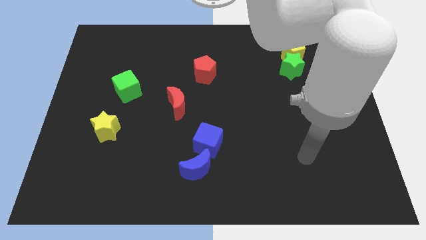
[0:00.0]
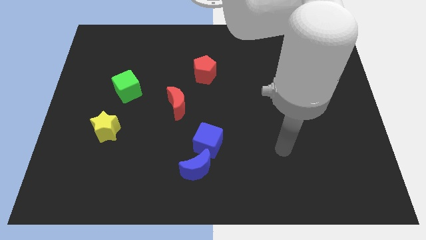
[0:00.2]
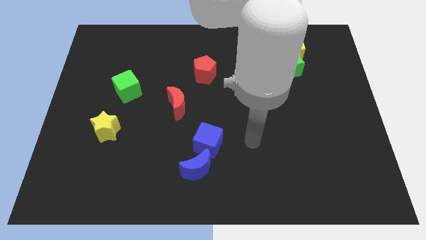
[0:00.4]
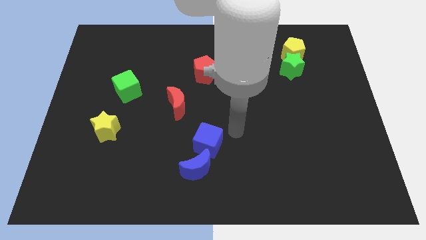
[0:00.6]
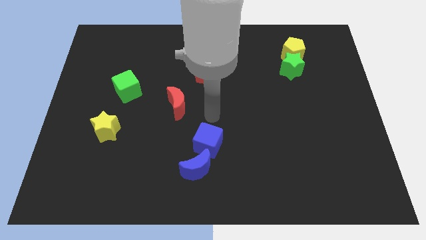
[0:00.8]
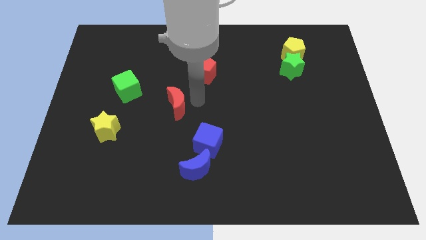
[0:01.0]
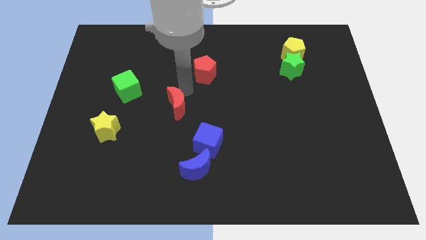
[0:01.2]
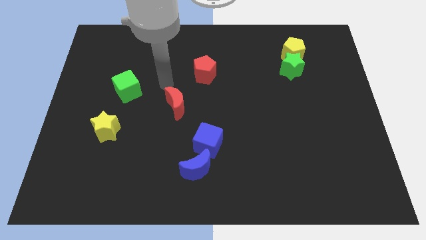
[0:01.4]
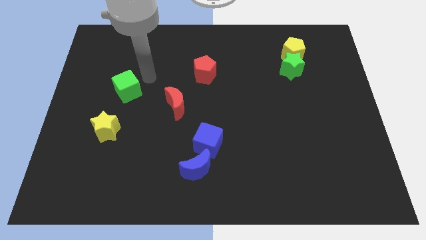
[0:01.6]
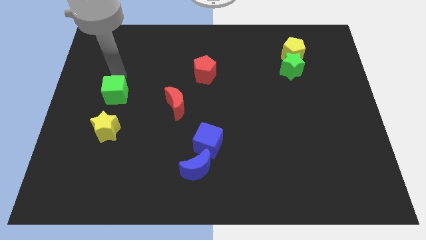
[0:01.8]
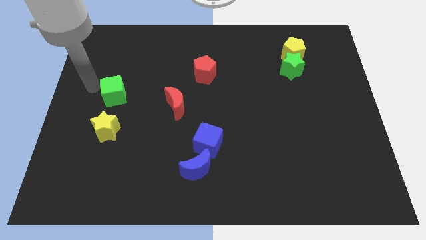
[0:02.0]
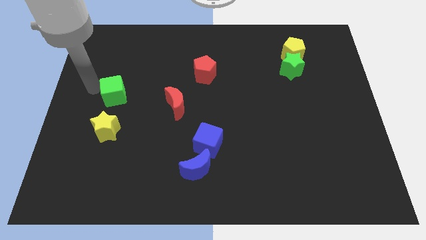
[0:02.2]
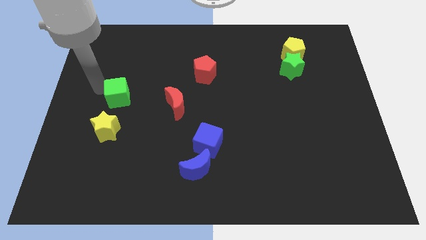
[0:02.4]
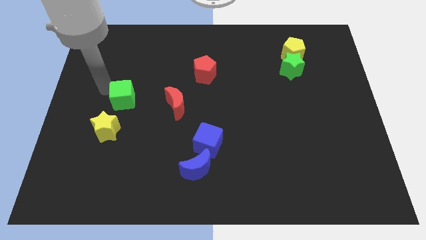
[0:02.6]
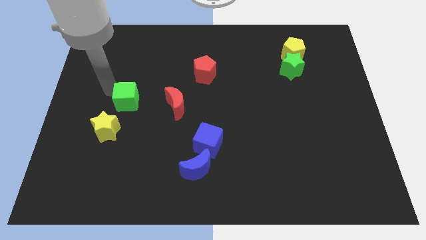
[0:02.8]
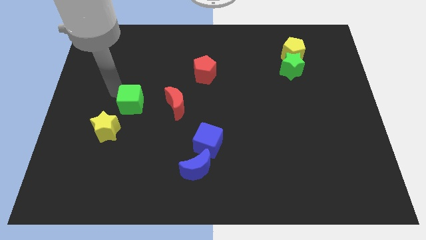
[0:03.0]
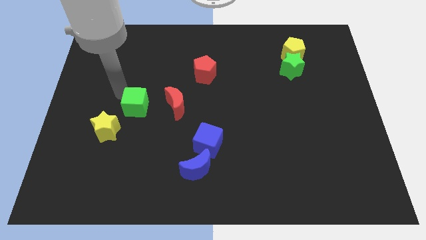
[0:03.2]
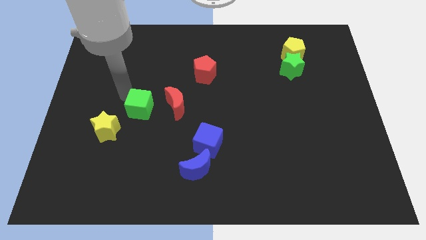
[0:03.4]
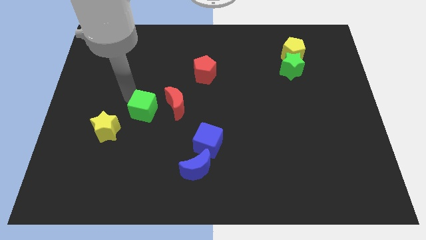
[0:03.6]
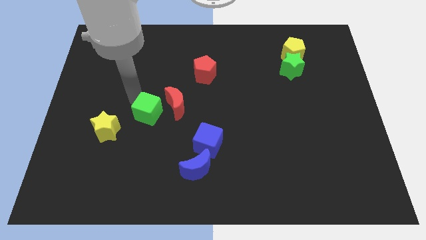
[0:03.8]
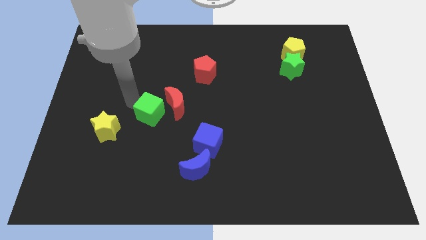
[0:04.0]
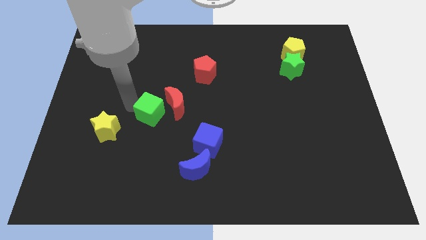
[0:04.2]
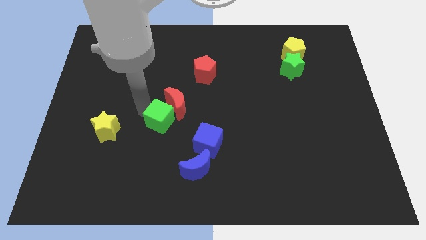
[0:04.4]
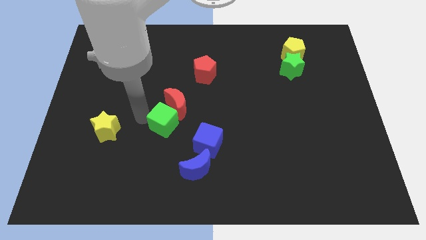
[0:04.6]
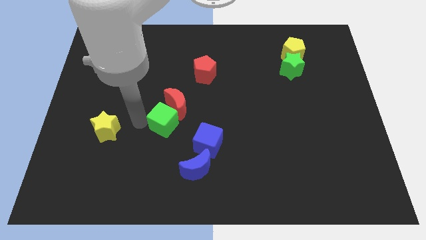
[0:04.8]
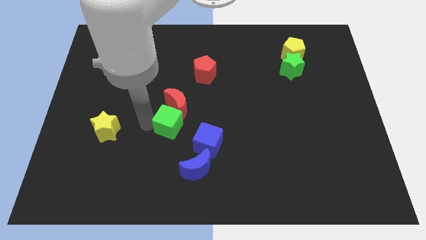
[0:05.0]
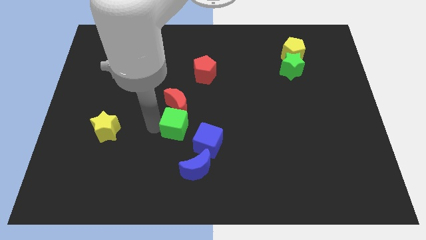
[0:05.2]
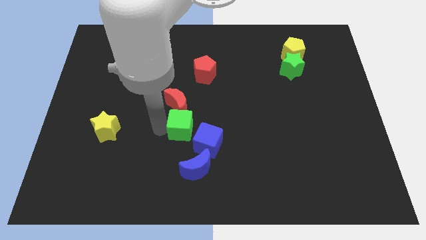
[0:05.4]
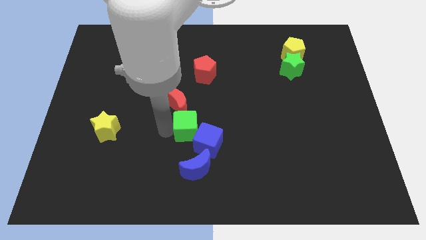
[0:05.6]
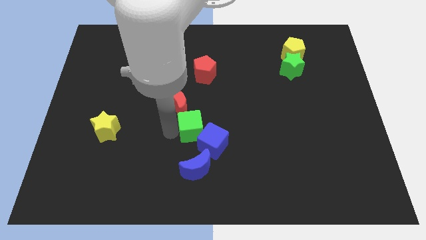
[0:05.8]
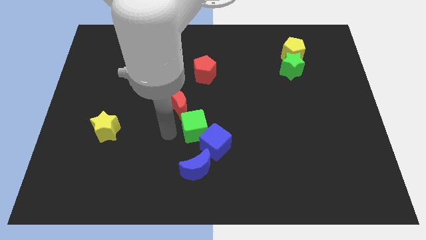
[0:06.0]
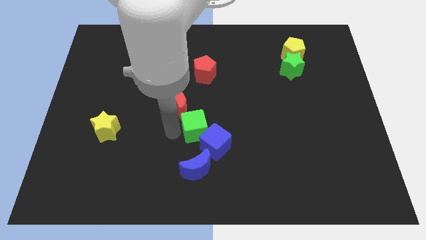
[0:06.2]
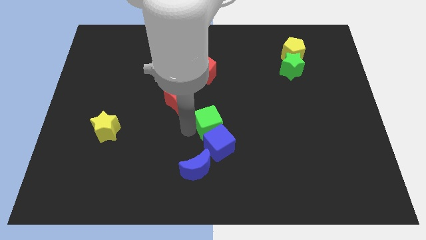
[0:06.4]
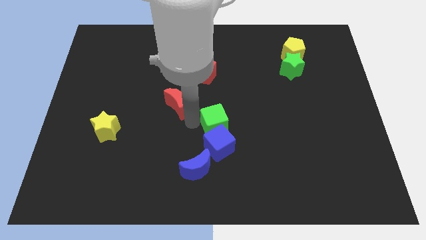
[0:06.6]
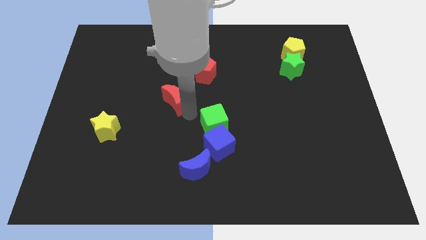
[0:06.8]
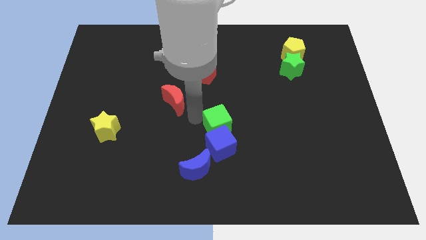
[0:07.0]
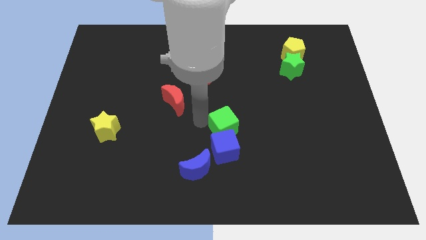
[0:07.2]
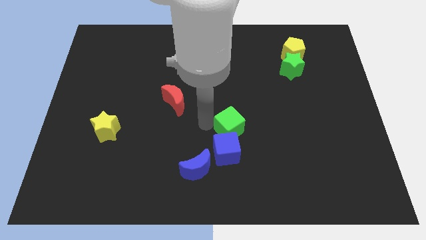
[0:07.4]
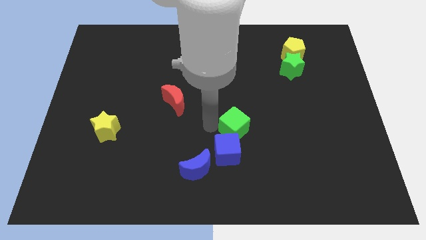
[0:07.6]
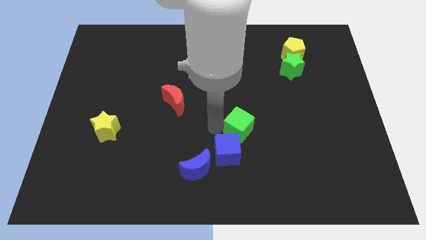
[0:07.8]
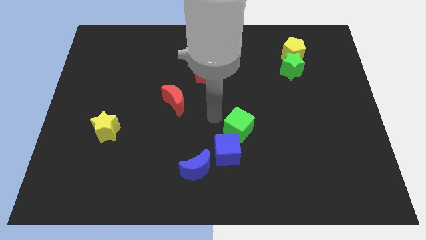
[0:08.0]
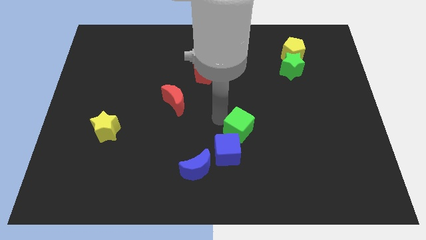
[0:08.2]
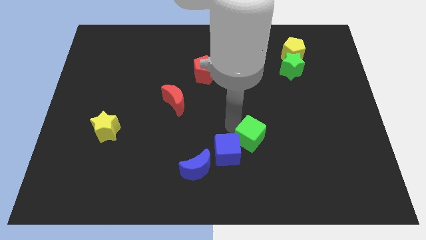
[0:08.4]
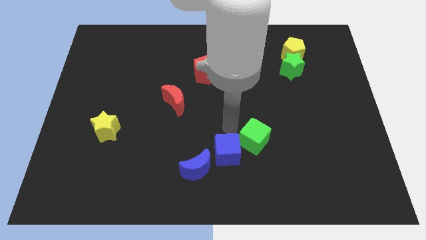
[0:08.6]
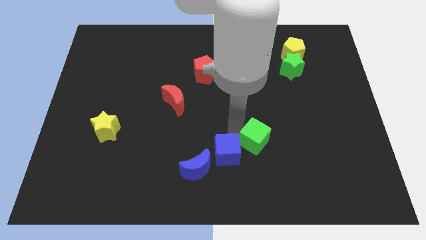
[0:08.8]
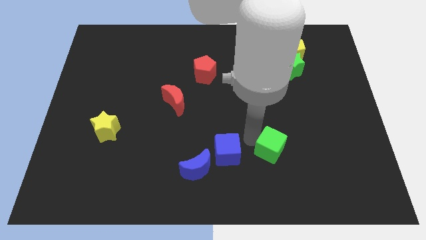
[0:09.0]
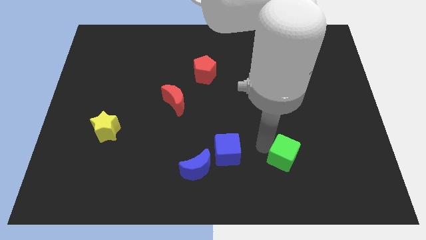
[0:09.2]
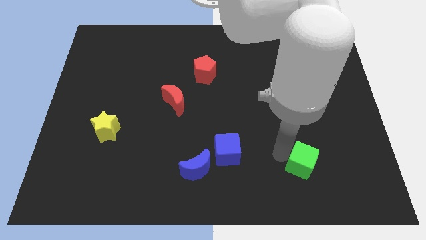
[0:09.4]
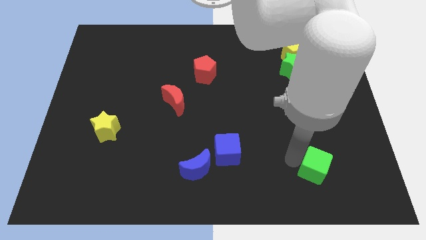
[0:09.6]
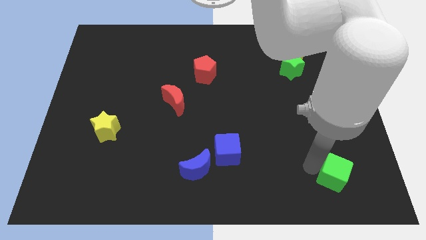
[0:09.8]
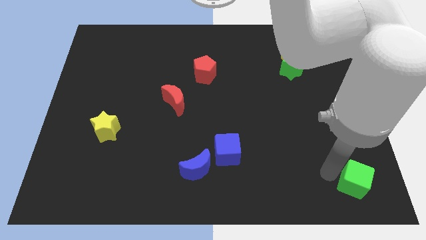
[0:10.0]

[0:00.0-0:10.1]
move the green cube to the bottom right of the board

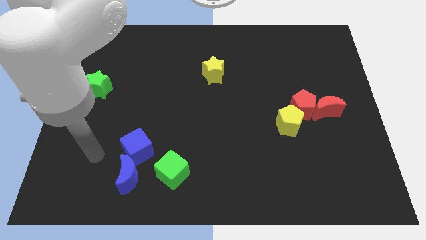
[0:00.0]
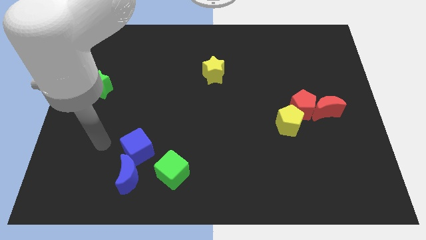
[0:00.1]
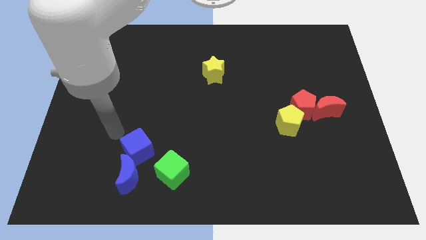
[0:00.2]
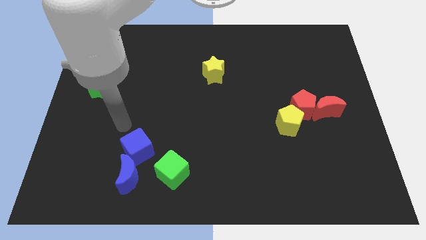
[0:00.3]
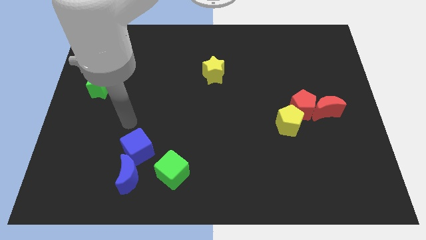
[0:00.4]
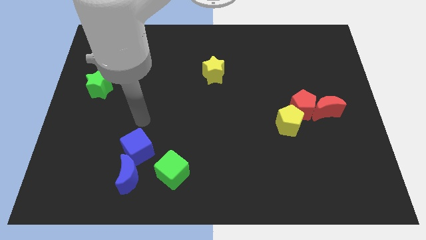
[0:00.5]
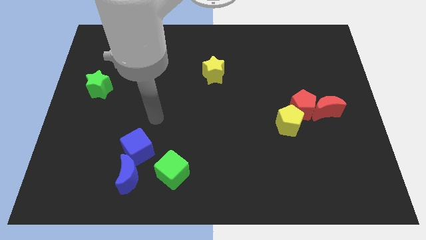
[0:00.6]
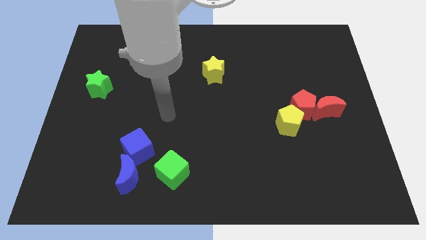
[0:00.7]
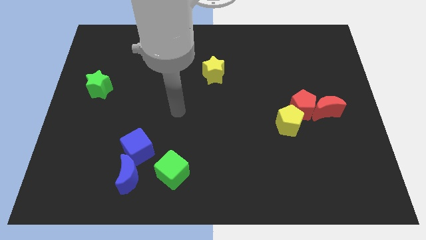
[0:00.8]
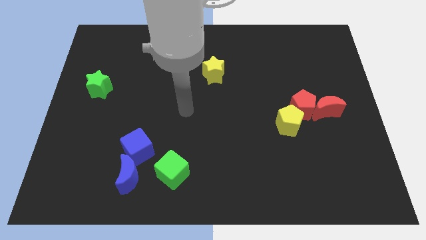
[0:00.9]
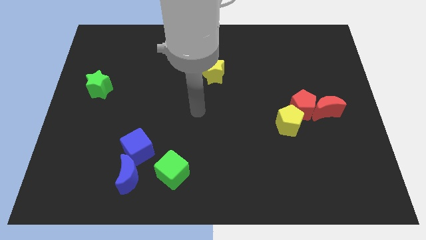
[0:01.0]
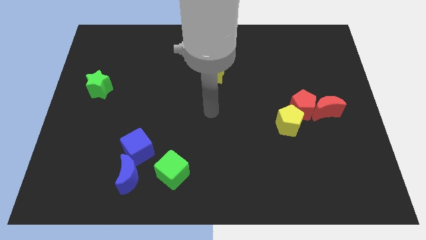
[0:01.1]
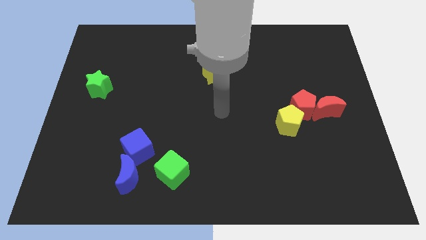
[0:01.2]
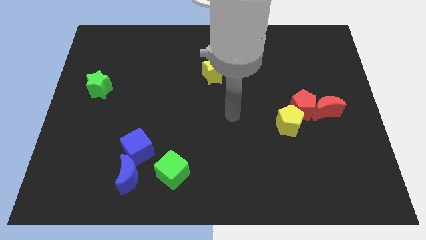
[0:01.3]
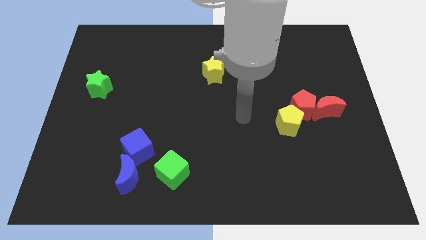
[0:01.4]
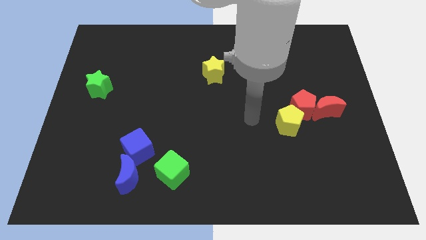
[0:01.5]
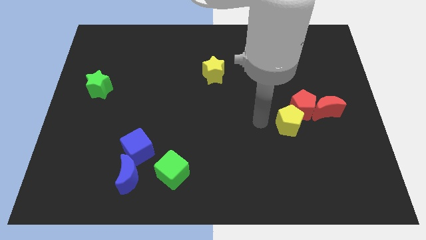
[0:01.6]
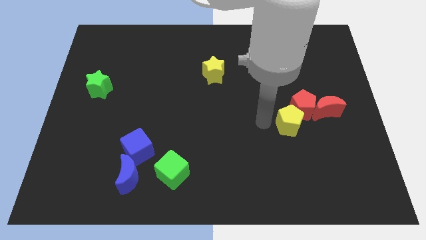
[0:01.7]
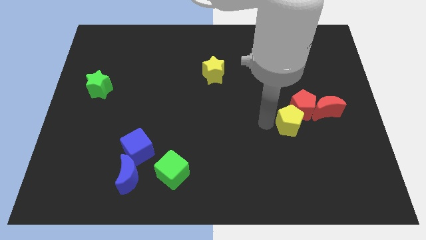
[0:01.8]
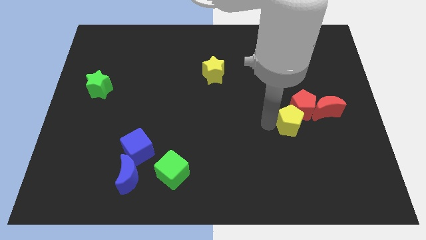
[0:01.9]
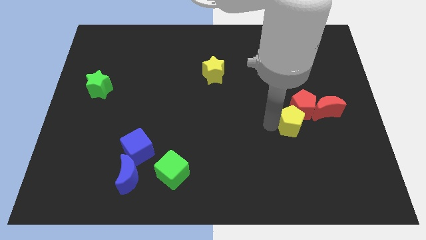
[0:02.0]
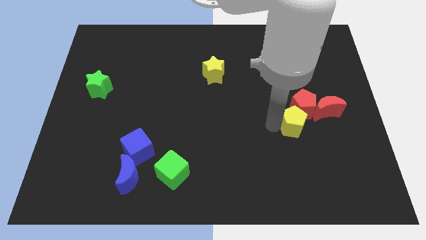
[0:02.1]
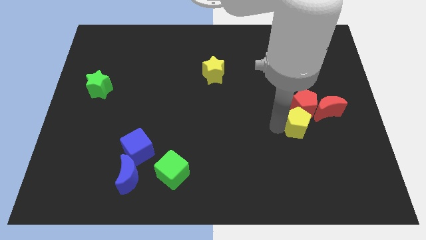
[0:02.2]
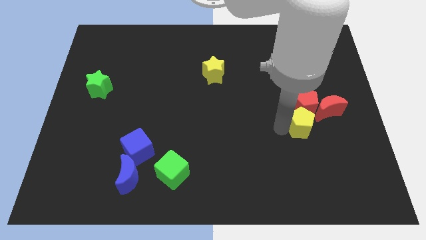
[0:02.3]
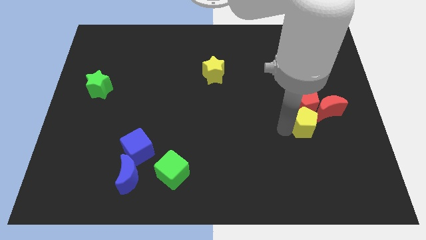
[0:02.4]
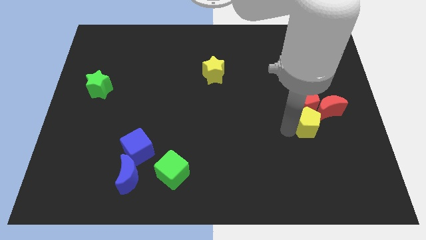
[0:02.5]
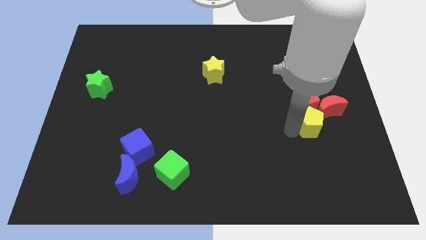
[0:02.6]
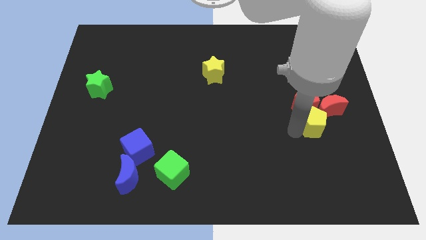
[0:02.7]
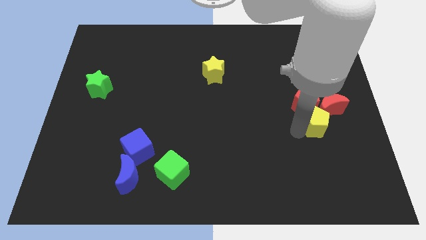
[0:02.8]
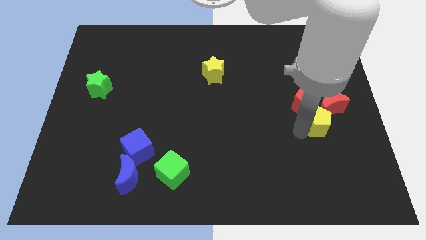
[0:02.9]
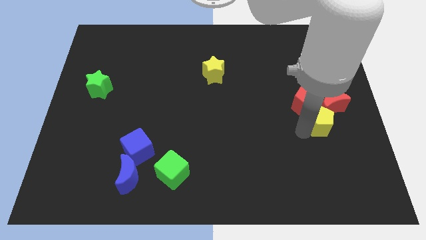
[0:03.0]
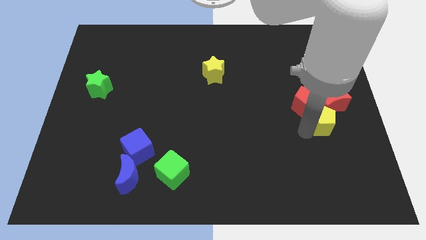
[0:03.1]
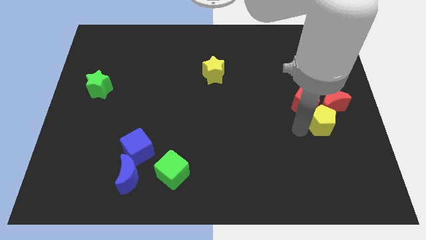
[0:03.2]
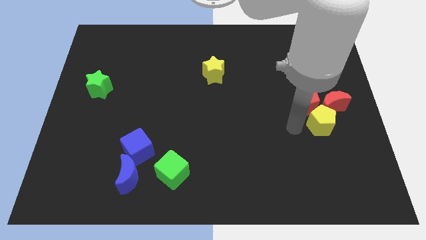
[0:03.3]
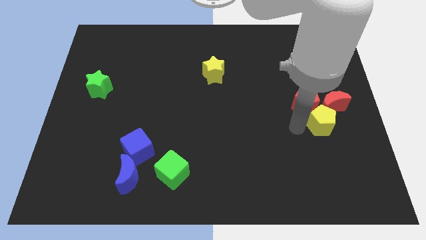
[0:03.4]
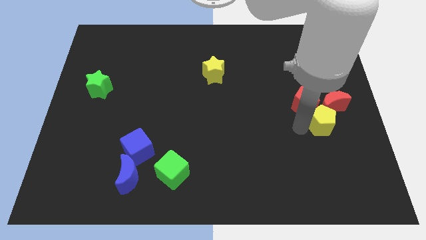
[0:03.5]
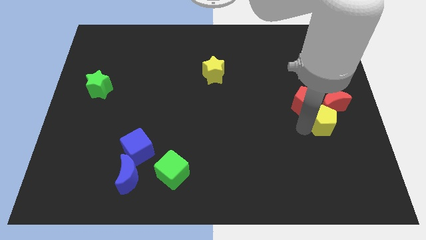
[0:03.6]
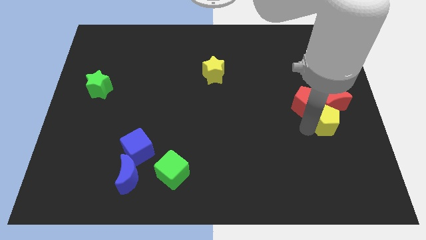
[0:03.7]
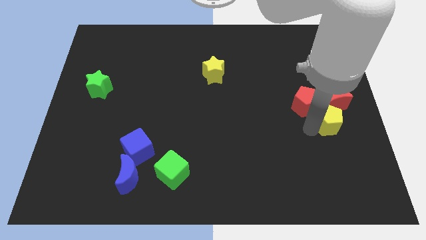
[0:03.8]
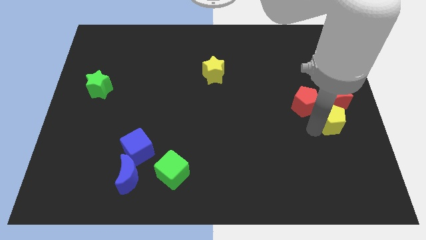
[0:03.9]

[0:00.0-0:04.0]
put the yellow pentagon to the right side
